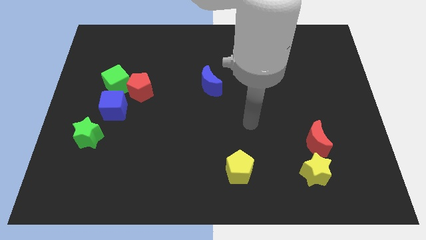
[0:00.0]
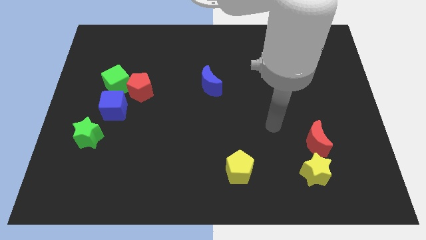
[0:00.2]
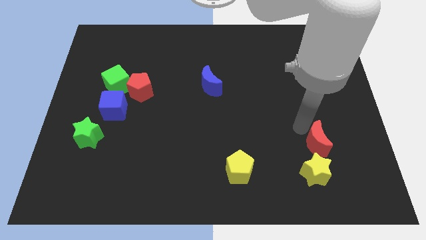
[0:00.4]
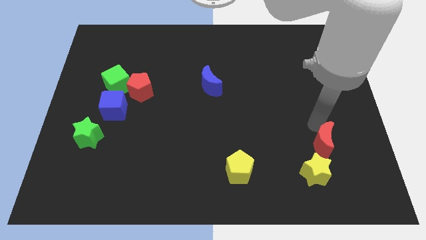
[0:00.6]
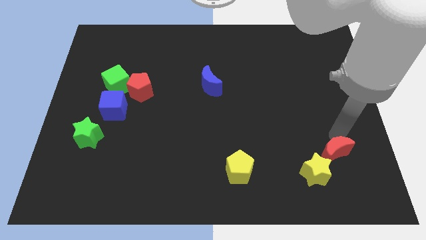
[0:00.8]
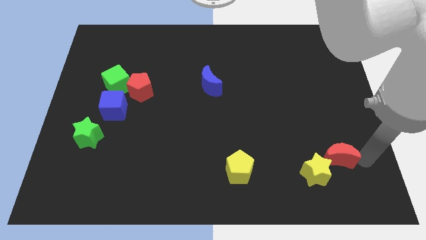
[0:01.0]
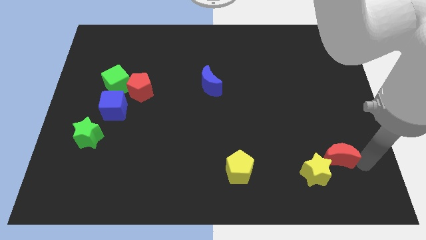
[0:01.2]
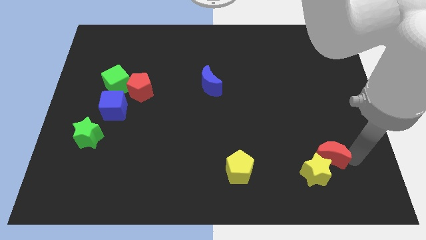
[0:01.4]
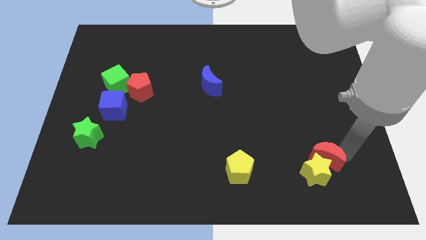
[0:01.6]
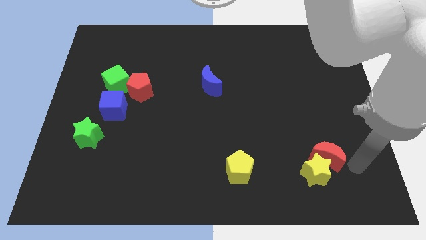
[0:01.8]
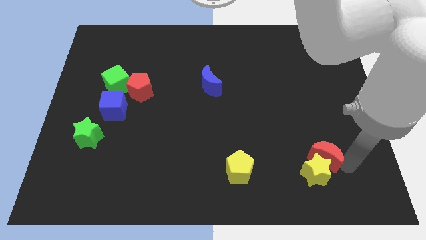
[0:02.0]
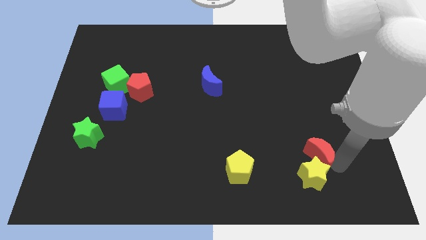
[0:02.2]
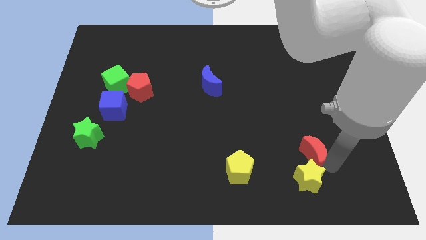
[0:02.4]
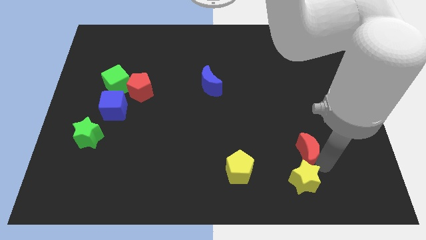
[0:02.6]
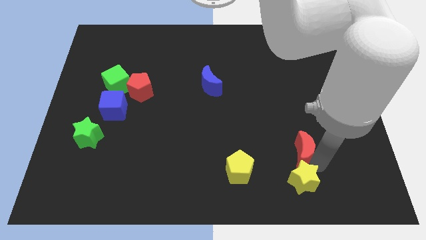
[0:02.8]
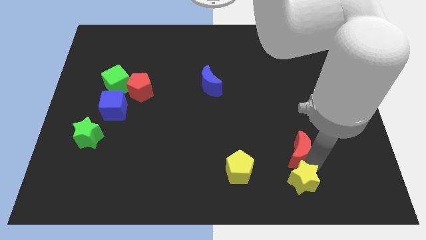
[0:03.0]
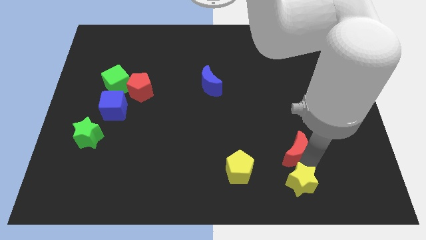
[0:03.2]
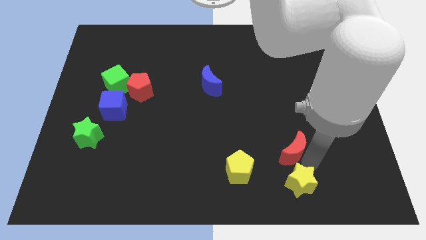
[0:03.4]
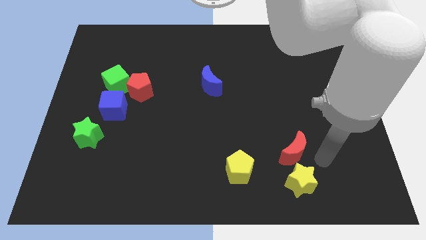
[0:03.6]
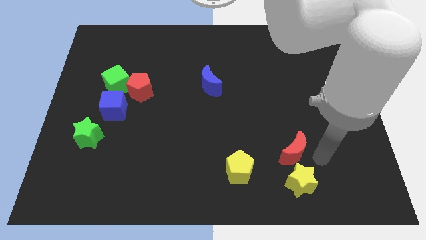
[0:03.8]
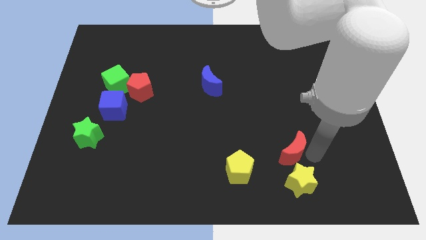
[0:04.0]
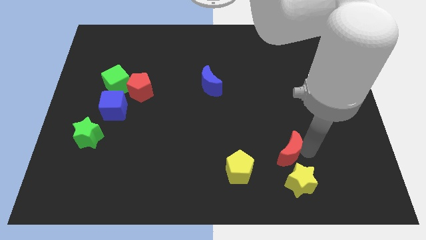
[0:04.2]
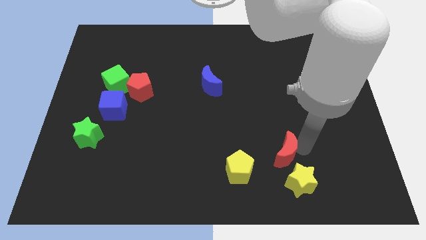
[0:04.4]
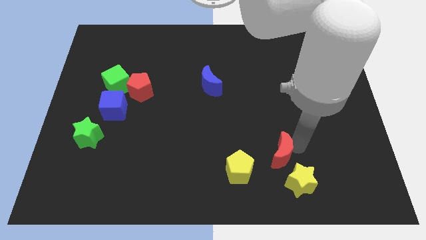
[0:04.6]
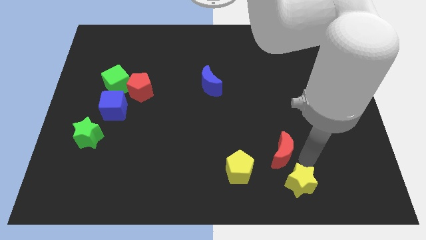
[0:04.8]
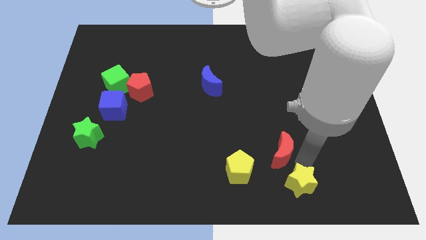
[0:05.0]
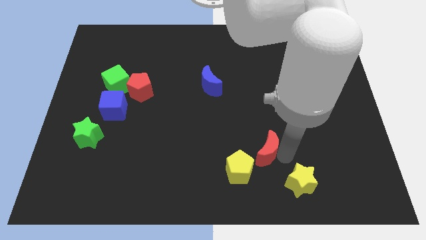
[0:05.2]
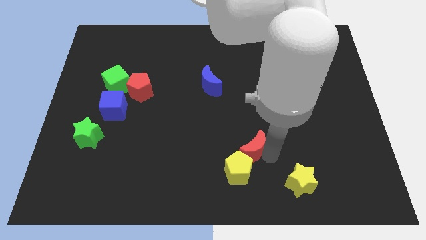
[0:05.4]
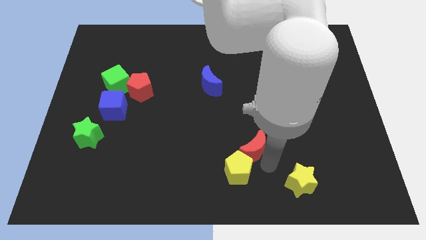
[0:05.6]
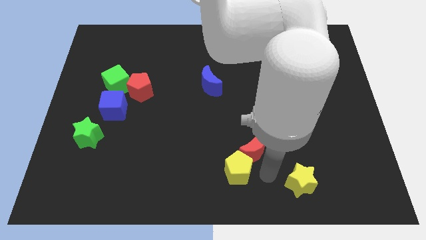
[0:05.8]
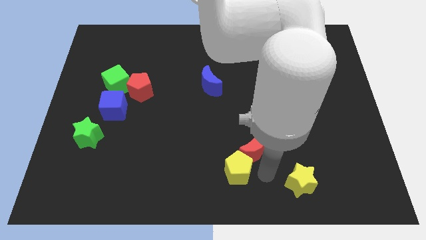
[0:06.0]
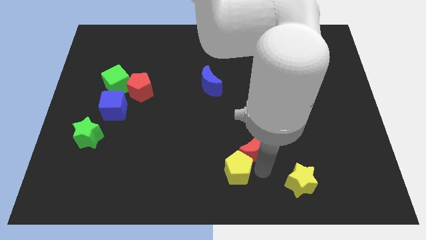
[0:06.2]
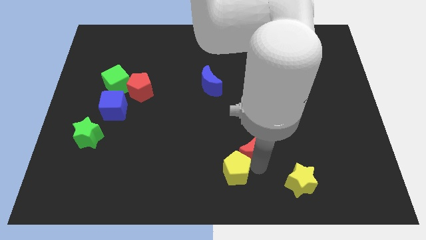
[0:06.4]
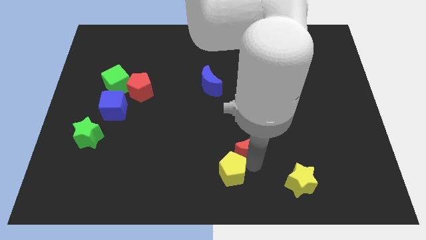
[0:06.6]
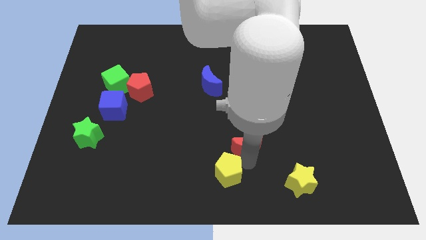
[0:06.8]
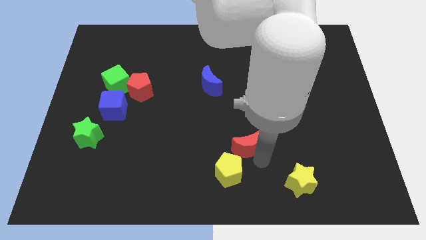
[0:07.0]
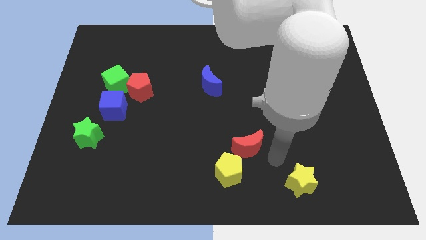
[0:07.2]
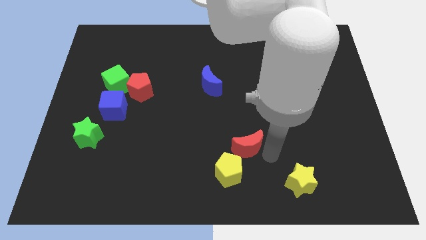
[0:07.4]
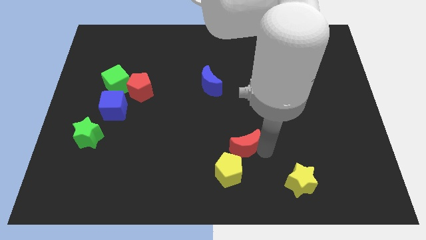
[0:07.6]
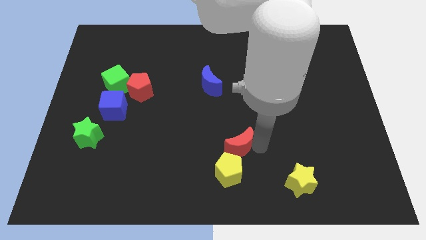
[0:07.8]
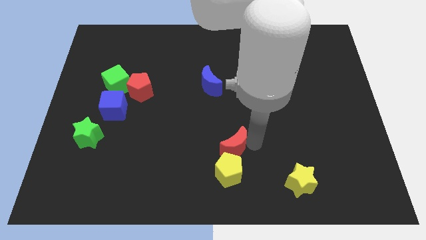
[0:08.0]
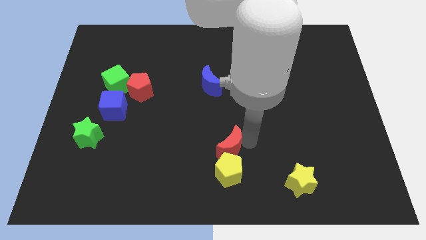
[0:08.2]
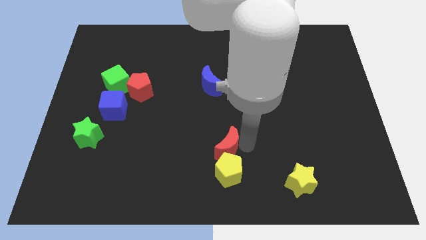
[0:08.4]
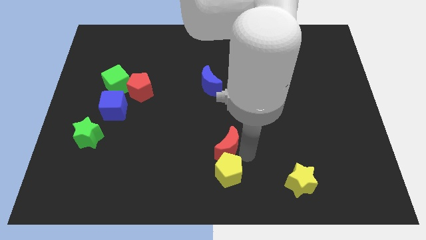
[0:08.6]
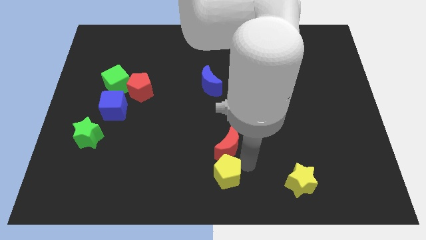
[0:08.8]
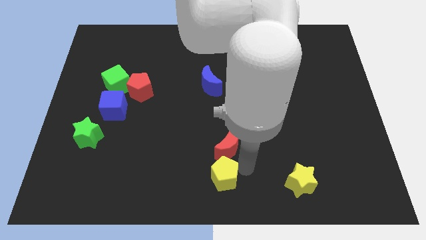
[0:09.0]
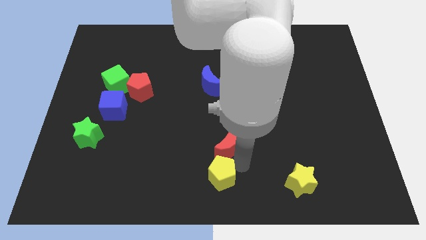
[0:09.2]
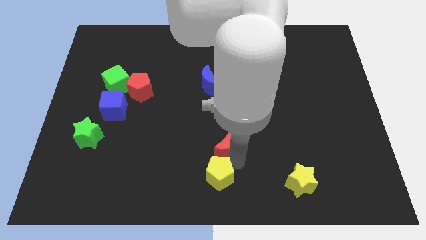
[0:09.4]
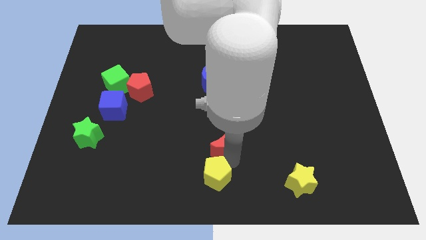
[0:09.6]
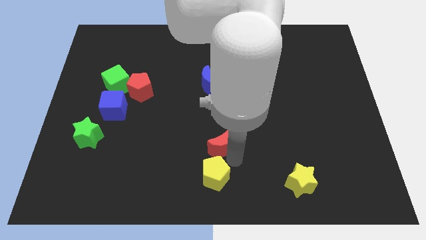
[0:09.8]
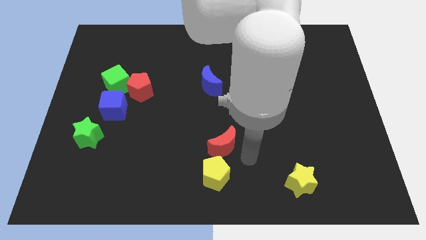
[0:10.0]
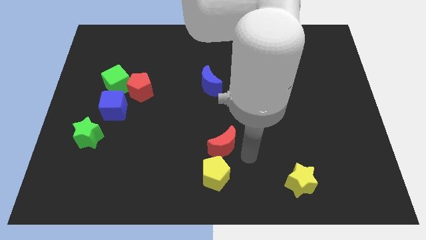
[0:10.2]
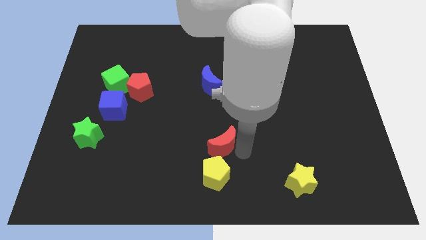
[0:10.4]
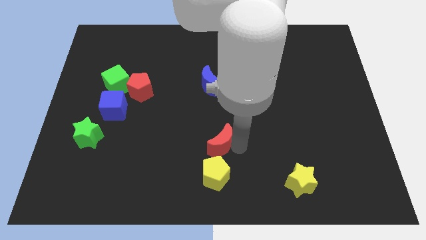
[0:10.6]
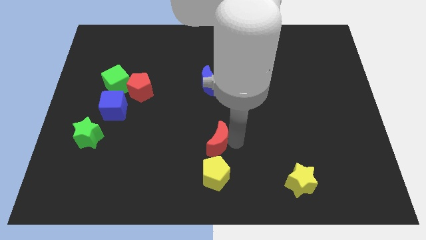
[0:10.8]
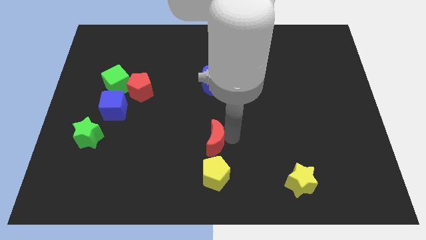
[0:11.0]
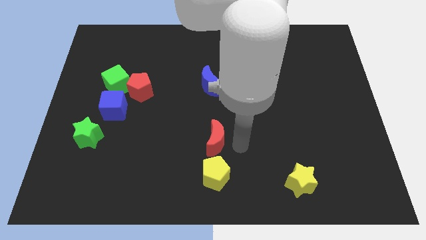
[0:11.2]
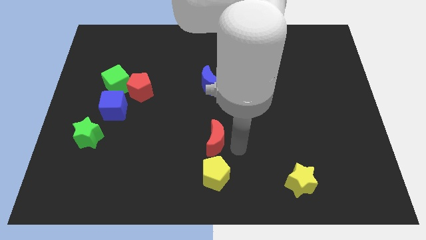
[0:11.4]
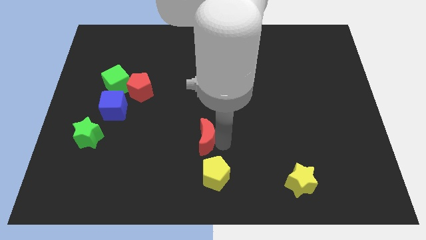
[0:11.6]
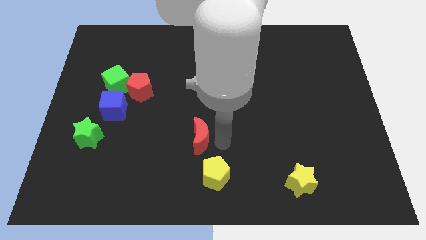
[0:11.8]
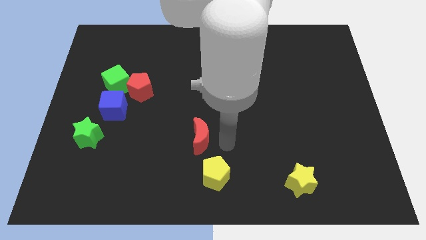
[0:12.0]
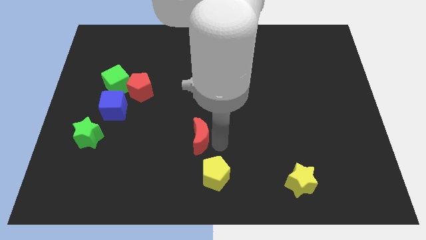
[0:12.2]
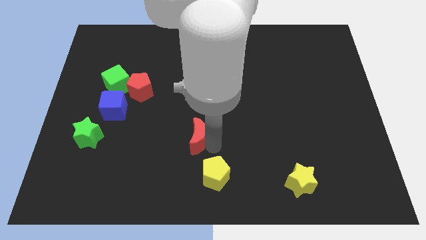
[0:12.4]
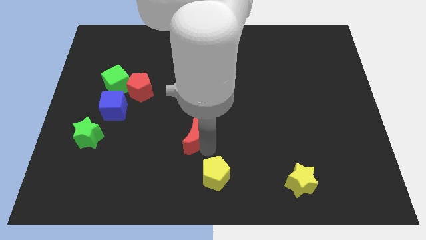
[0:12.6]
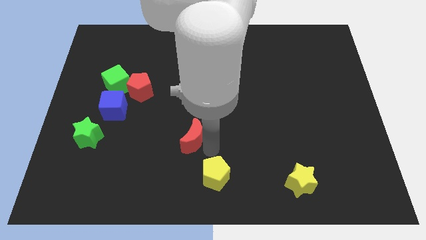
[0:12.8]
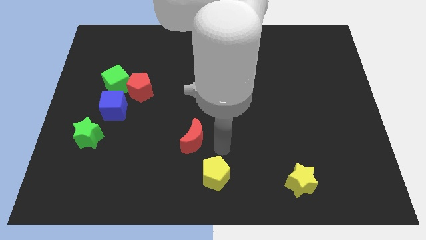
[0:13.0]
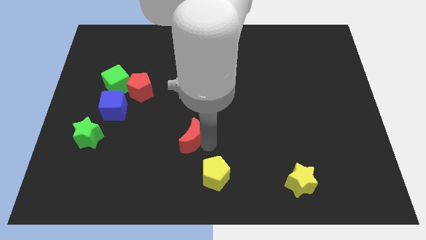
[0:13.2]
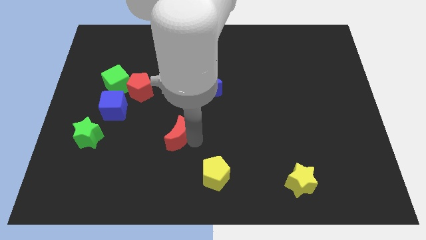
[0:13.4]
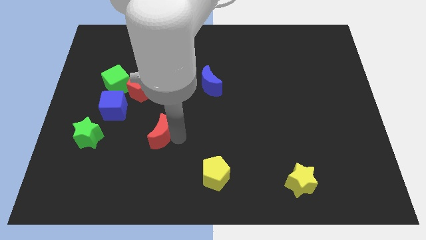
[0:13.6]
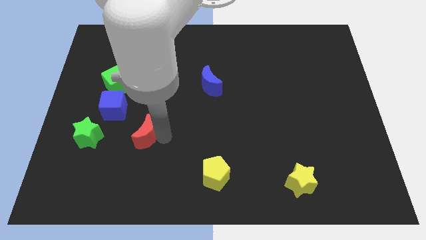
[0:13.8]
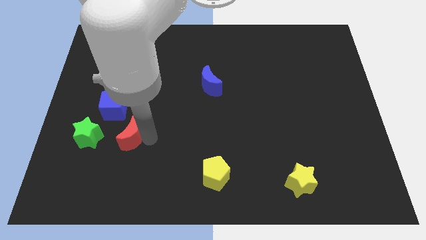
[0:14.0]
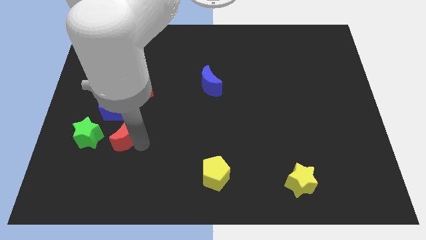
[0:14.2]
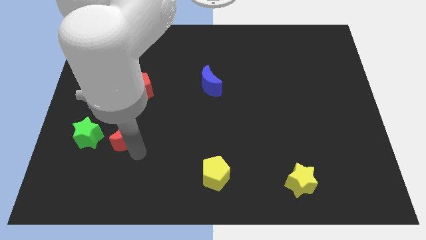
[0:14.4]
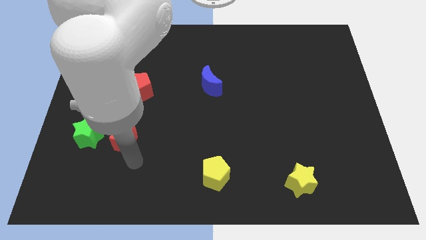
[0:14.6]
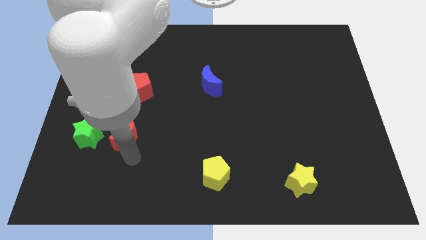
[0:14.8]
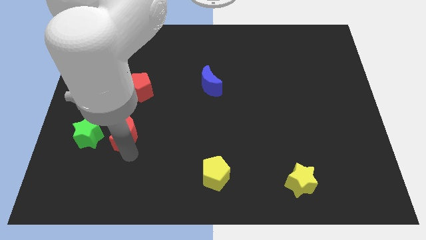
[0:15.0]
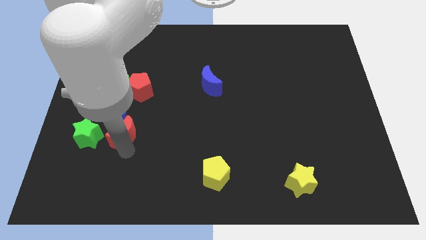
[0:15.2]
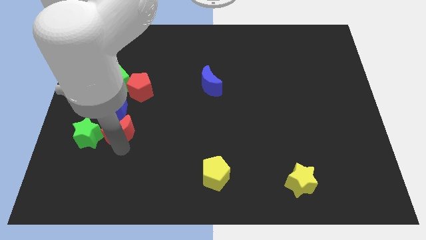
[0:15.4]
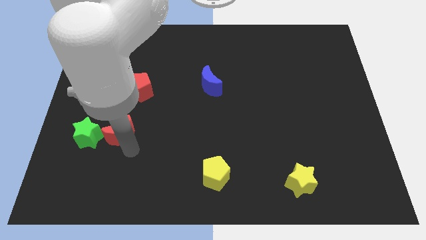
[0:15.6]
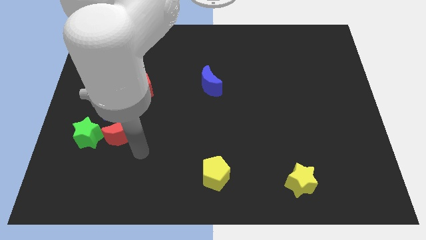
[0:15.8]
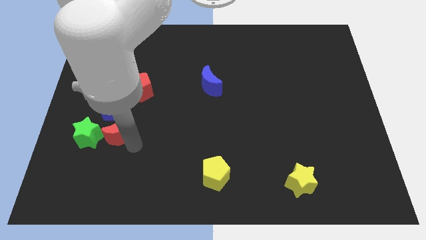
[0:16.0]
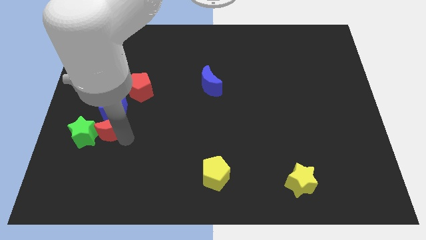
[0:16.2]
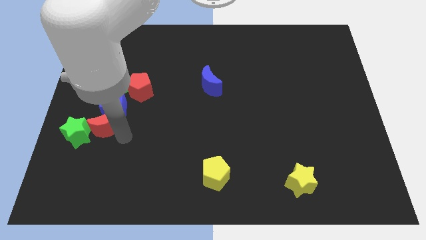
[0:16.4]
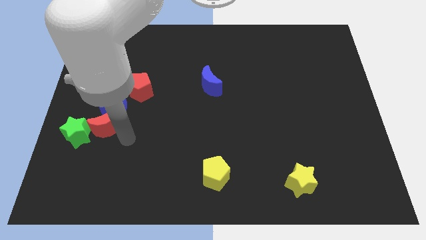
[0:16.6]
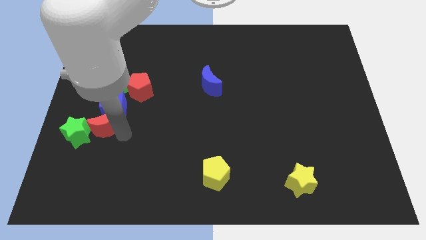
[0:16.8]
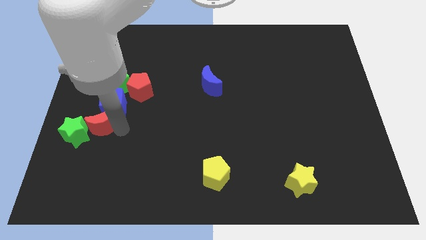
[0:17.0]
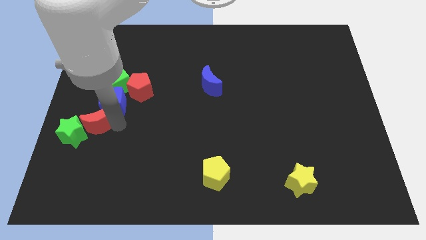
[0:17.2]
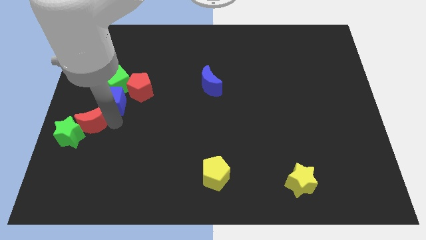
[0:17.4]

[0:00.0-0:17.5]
move the red moon to the top of the green star
